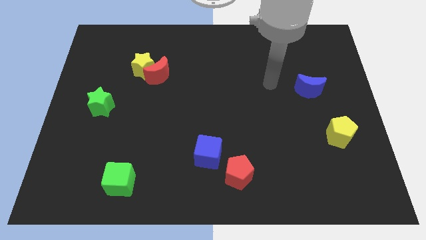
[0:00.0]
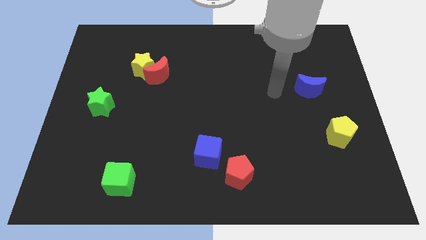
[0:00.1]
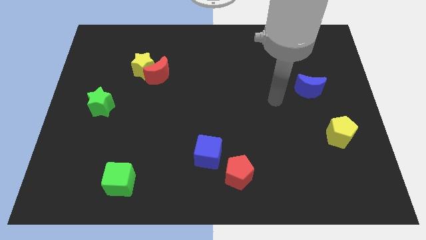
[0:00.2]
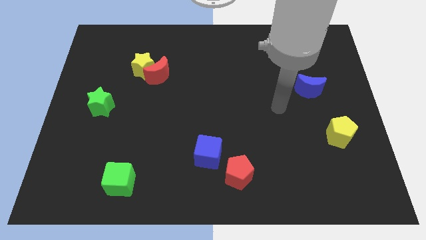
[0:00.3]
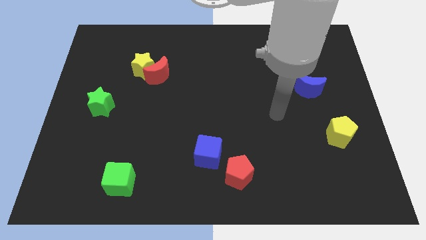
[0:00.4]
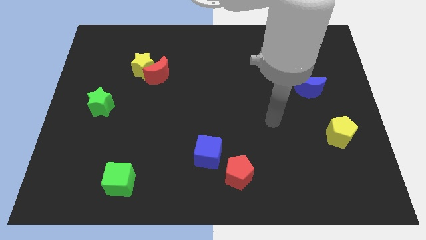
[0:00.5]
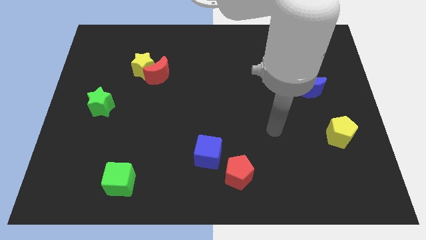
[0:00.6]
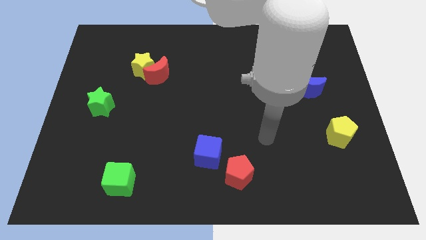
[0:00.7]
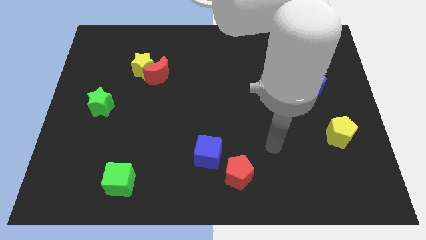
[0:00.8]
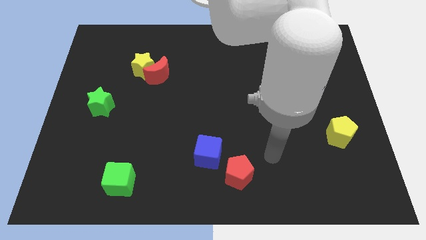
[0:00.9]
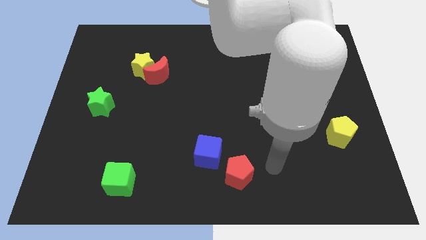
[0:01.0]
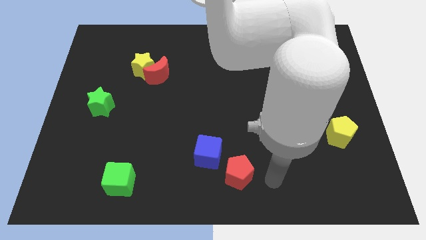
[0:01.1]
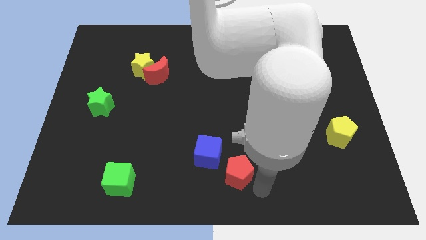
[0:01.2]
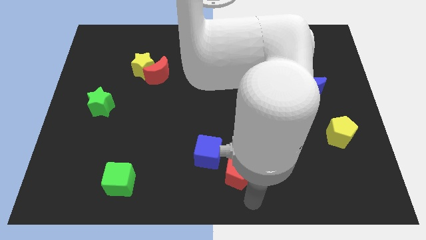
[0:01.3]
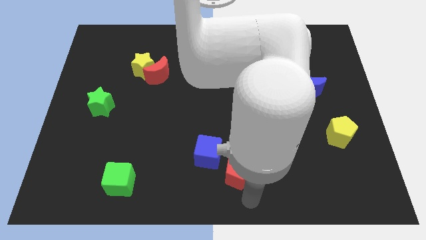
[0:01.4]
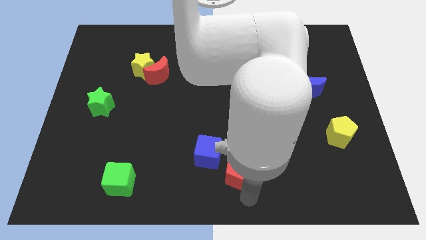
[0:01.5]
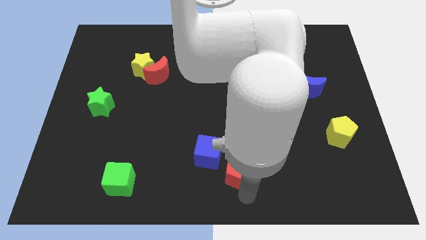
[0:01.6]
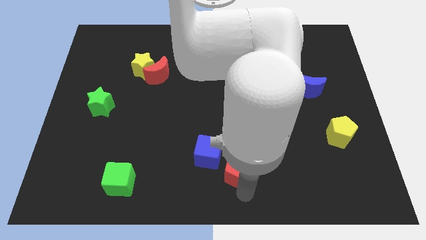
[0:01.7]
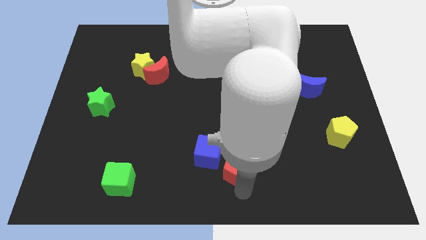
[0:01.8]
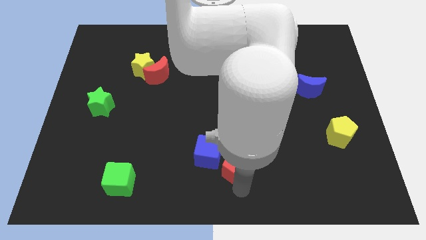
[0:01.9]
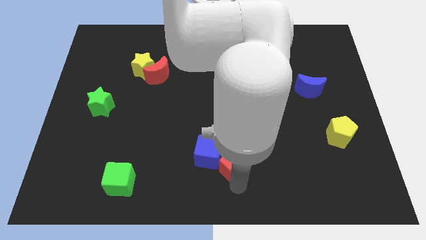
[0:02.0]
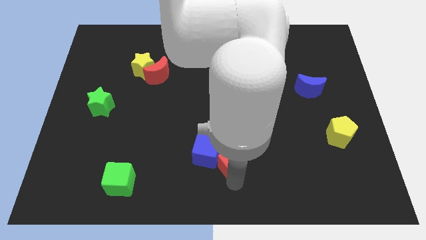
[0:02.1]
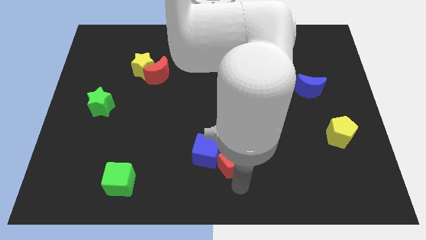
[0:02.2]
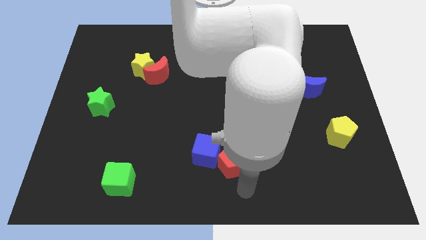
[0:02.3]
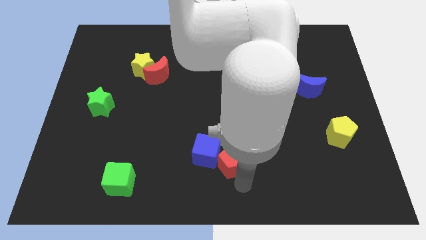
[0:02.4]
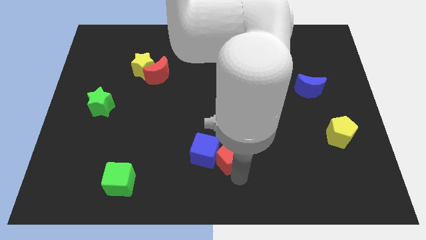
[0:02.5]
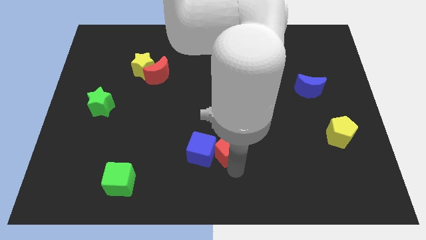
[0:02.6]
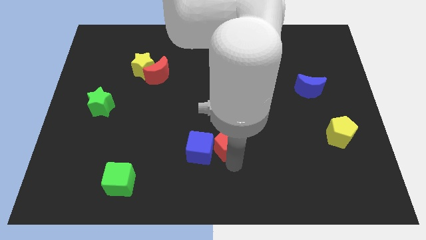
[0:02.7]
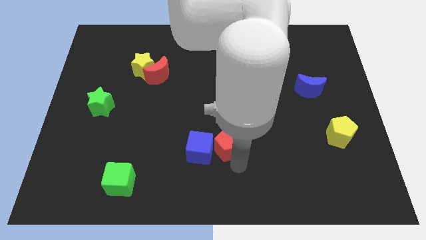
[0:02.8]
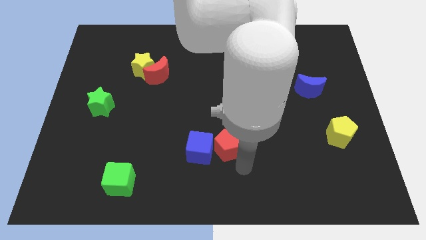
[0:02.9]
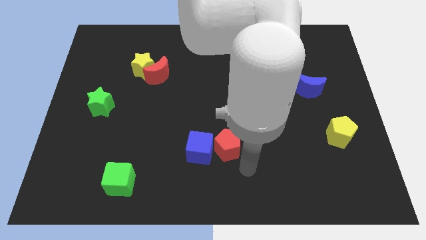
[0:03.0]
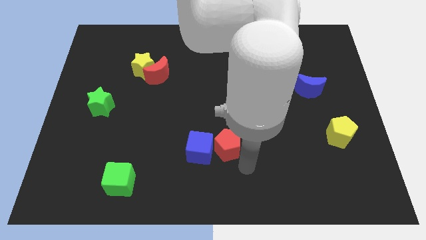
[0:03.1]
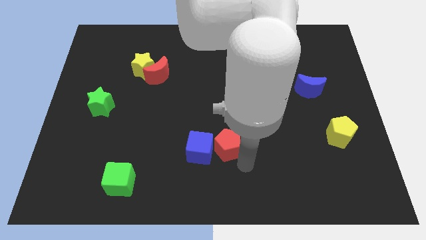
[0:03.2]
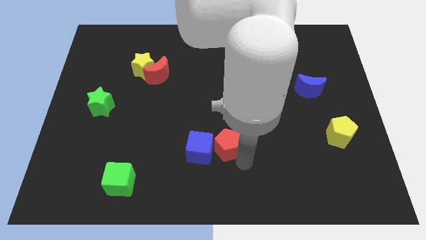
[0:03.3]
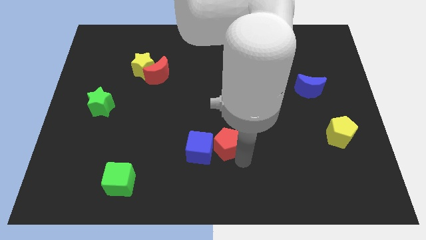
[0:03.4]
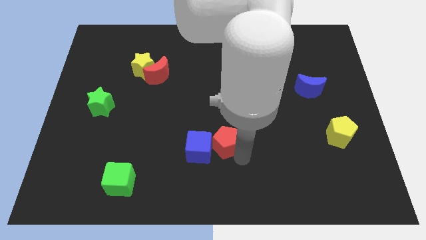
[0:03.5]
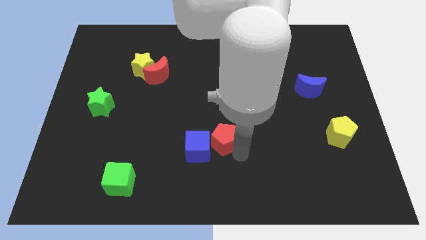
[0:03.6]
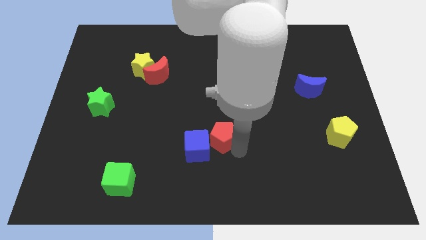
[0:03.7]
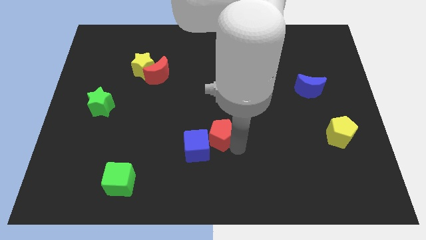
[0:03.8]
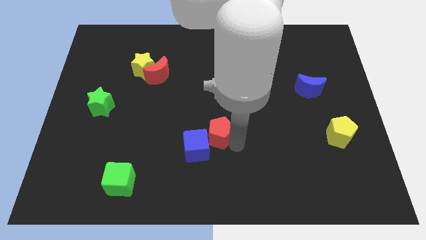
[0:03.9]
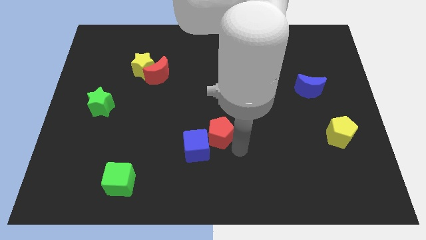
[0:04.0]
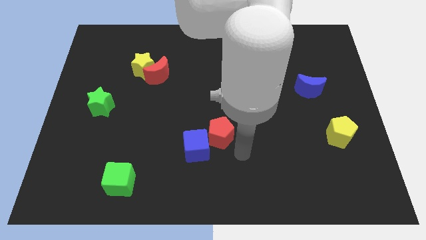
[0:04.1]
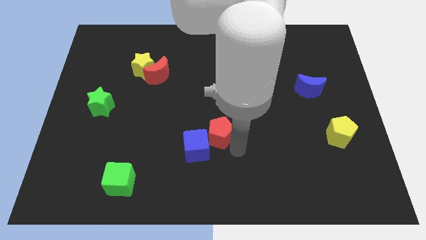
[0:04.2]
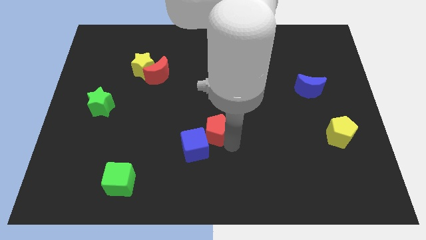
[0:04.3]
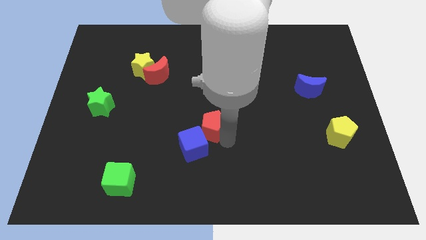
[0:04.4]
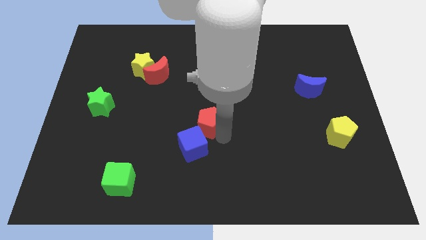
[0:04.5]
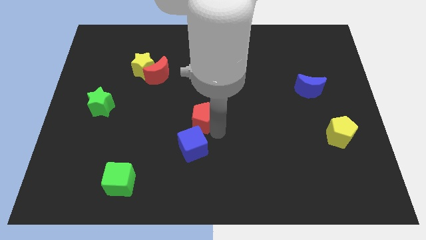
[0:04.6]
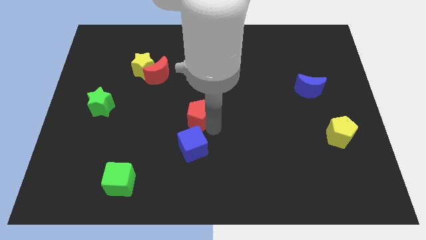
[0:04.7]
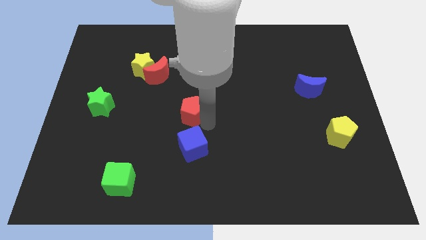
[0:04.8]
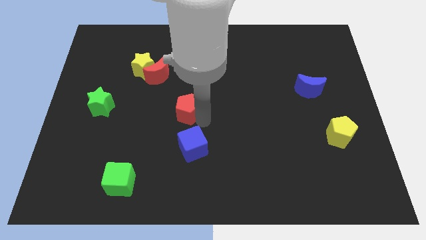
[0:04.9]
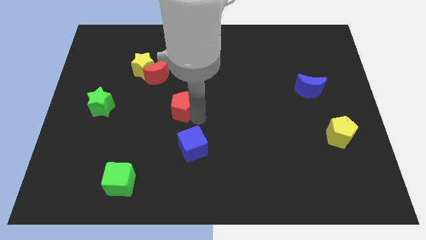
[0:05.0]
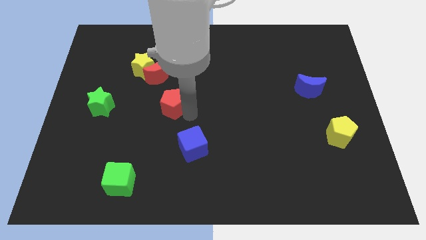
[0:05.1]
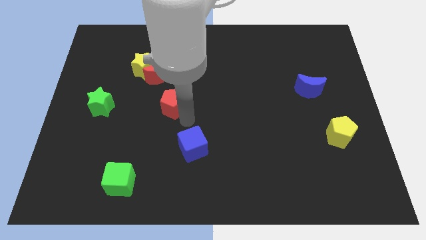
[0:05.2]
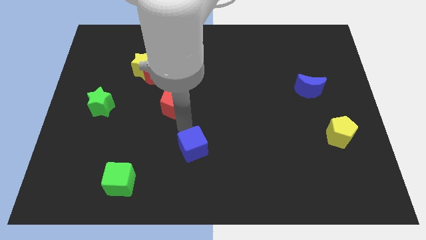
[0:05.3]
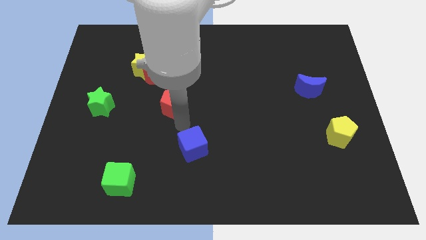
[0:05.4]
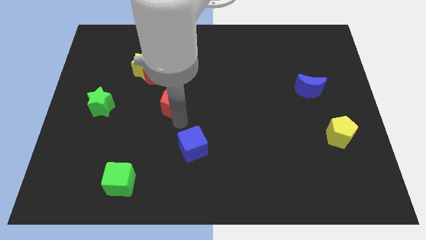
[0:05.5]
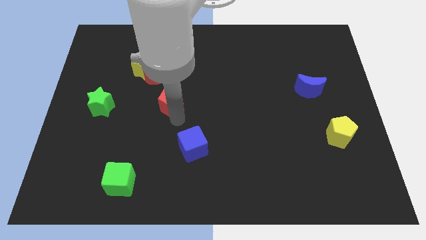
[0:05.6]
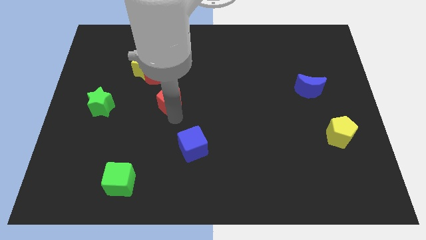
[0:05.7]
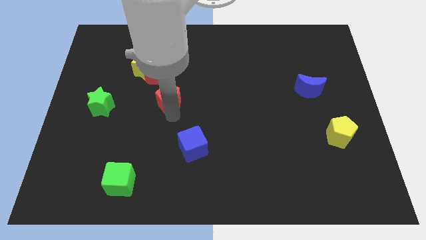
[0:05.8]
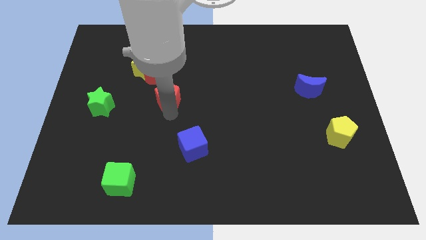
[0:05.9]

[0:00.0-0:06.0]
move the red pentagon diagonally down and to the right of the yellow star
